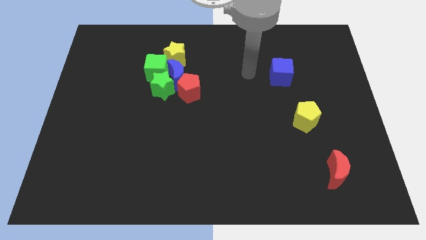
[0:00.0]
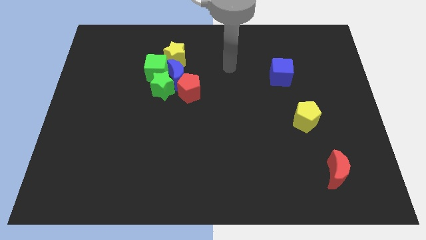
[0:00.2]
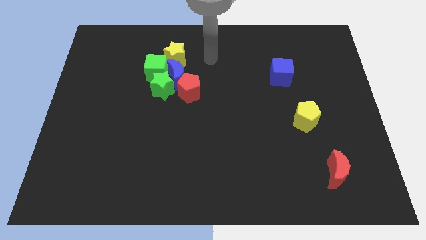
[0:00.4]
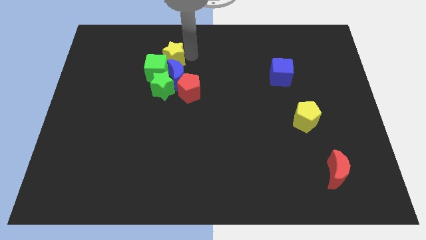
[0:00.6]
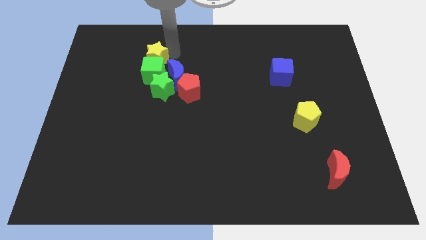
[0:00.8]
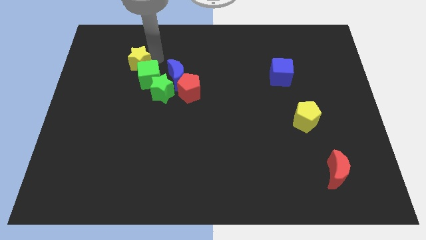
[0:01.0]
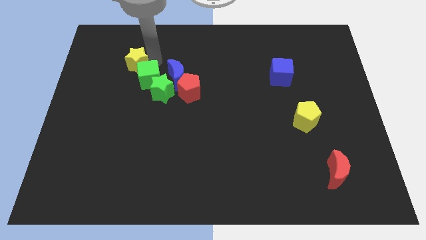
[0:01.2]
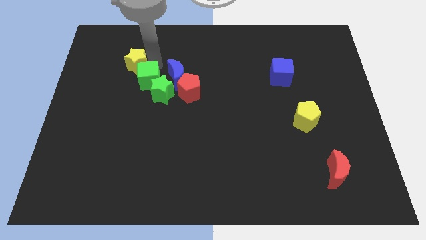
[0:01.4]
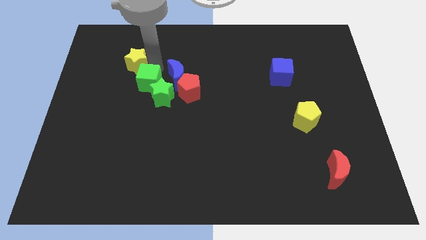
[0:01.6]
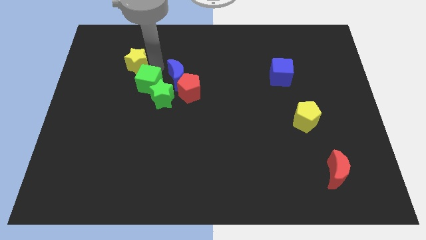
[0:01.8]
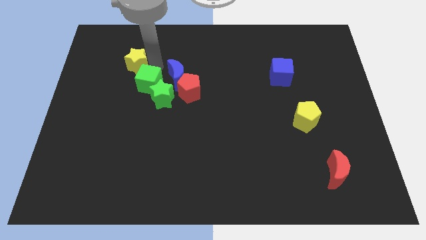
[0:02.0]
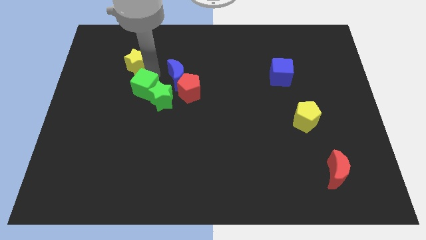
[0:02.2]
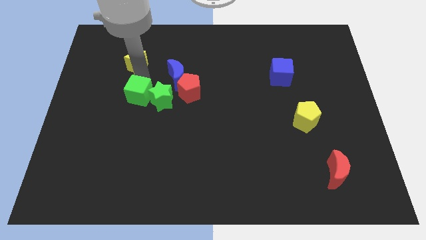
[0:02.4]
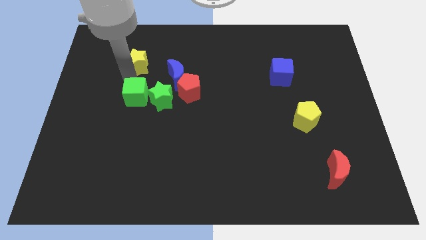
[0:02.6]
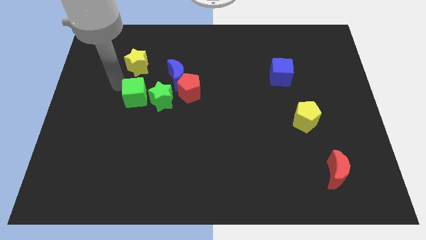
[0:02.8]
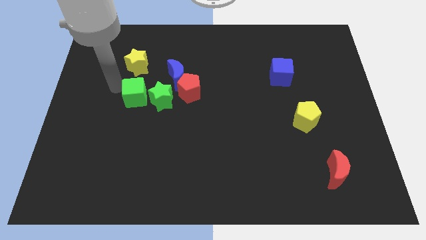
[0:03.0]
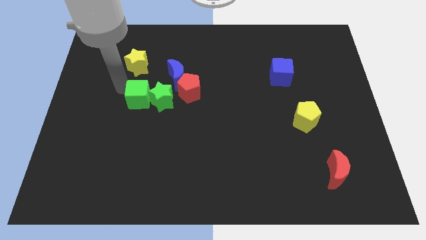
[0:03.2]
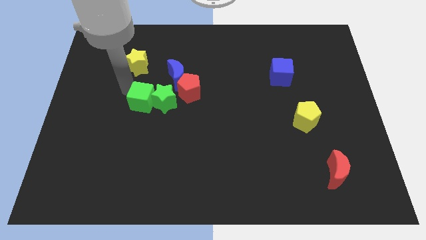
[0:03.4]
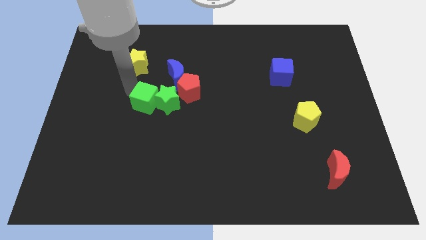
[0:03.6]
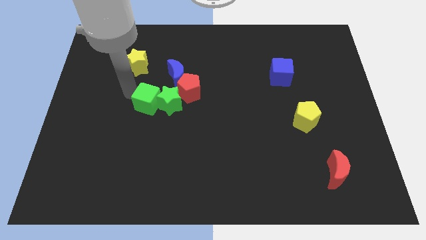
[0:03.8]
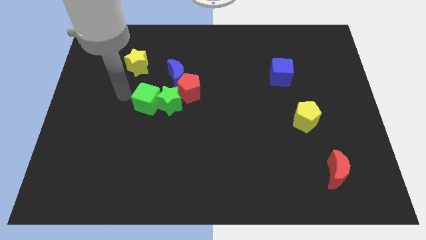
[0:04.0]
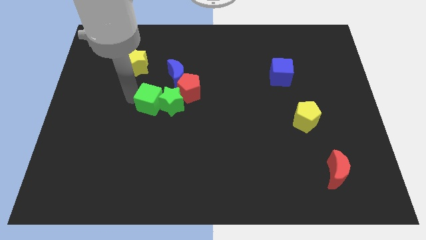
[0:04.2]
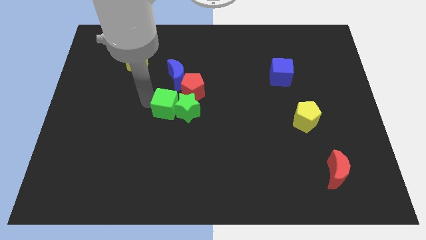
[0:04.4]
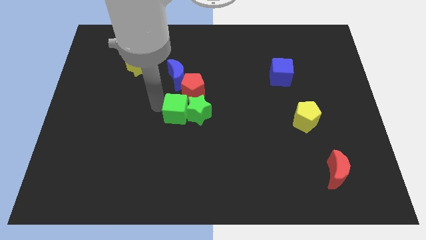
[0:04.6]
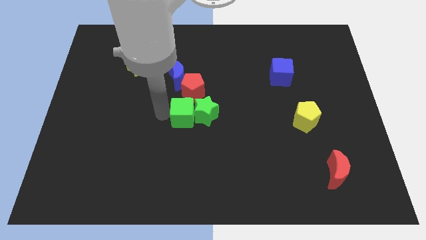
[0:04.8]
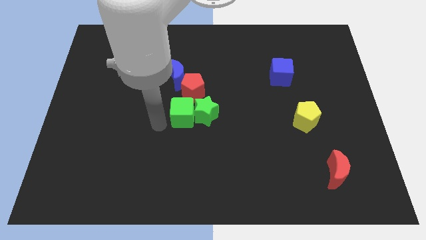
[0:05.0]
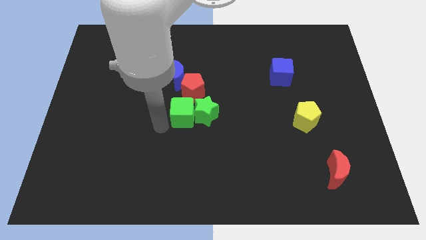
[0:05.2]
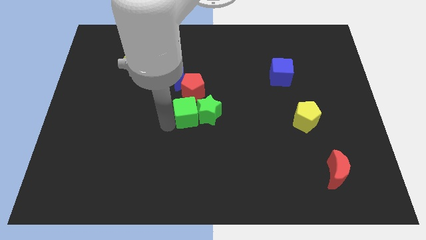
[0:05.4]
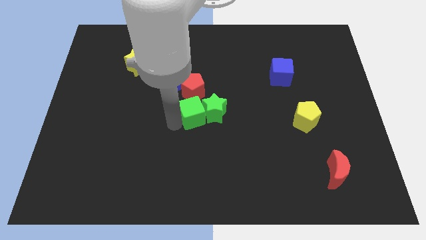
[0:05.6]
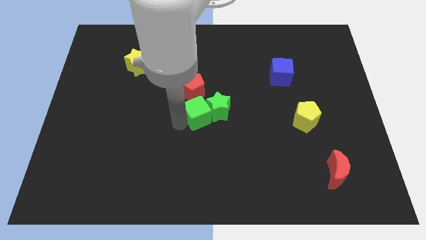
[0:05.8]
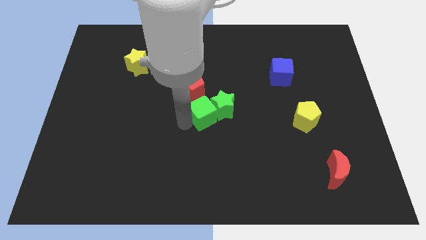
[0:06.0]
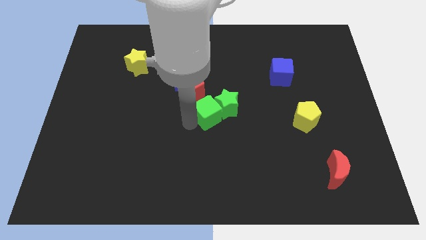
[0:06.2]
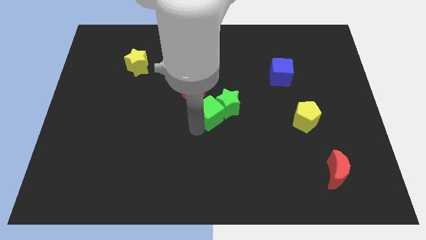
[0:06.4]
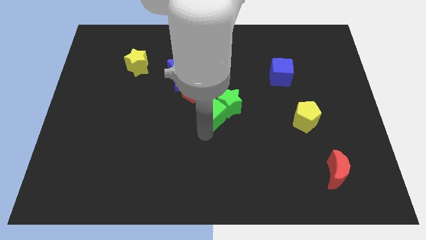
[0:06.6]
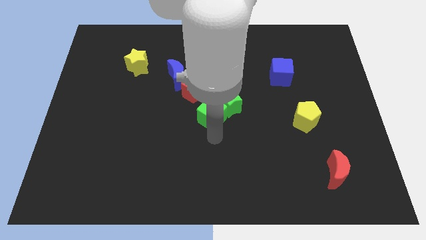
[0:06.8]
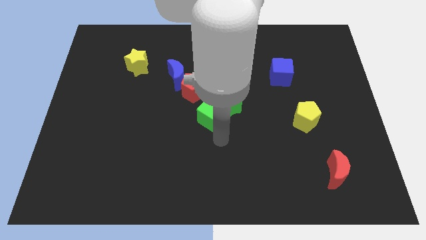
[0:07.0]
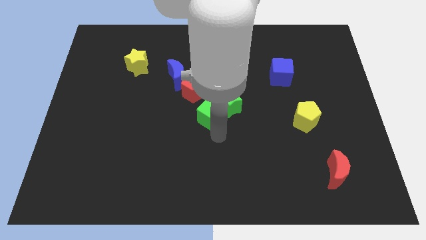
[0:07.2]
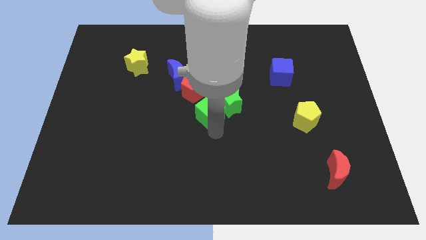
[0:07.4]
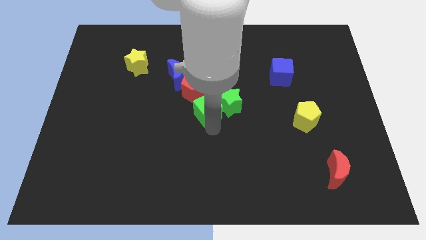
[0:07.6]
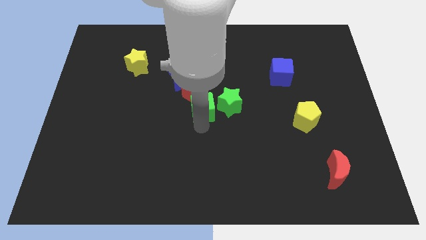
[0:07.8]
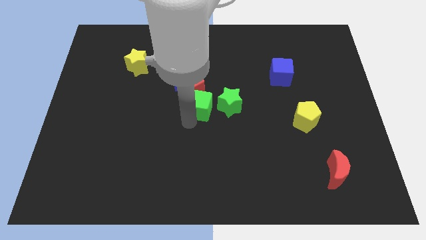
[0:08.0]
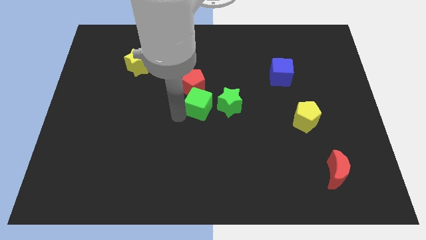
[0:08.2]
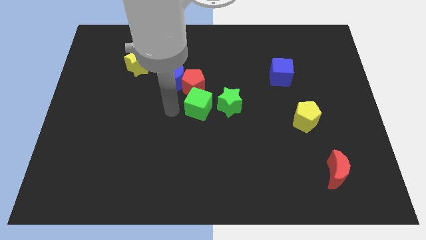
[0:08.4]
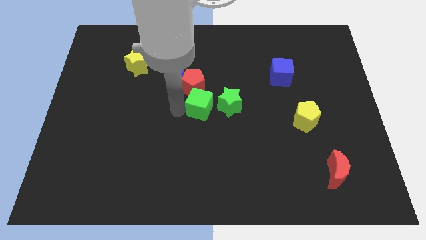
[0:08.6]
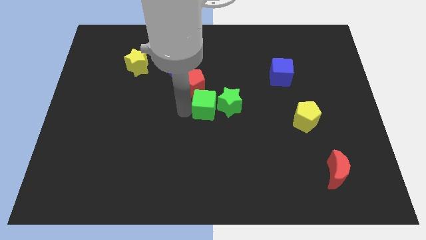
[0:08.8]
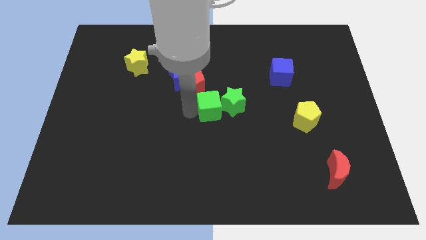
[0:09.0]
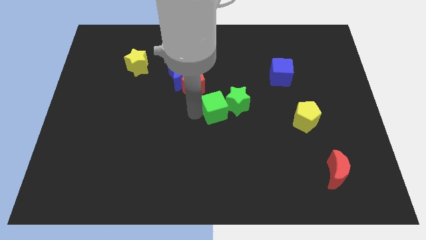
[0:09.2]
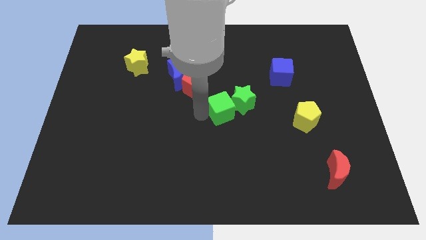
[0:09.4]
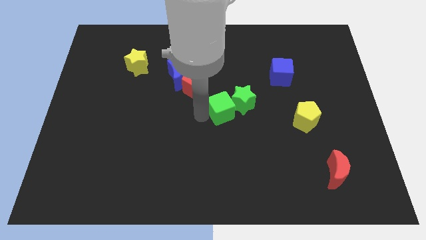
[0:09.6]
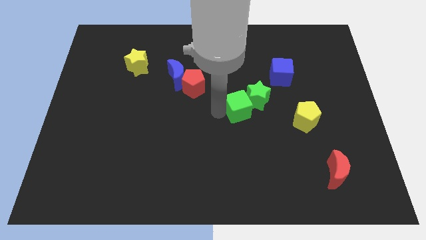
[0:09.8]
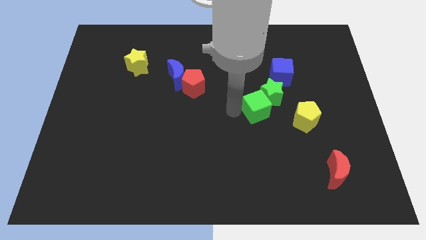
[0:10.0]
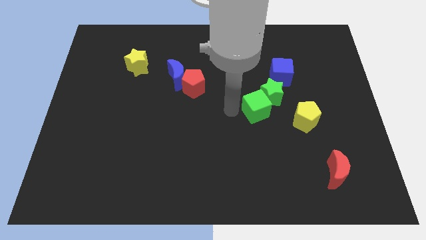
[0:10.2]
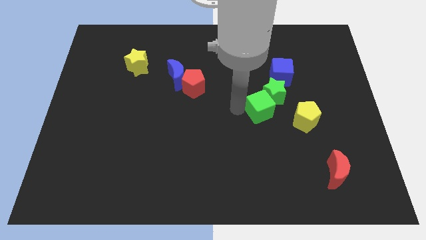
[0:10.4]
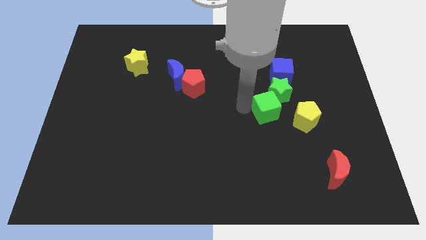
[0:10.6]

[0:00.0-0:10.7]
push the green cube to the bottom side of the blue cube

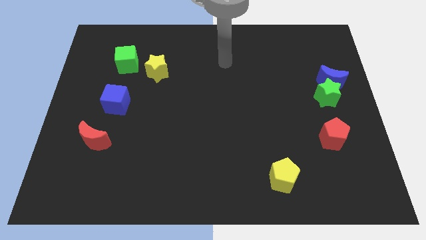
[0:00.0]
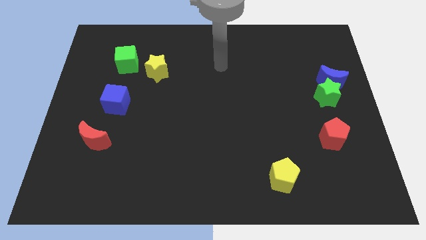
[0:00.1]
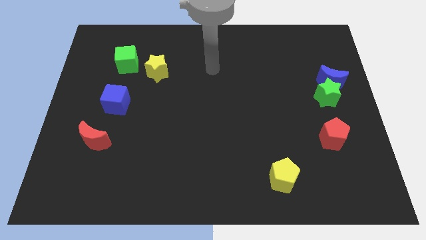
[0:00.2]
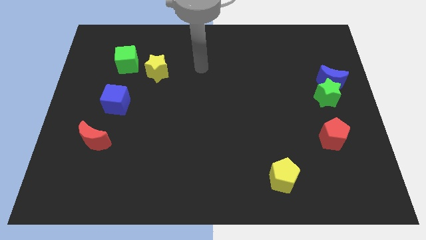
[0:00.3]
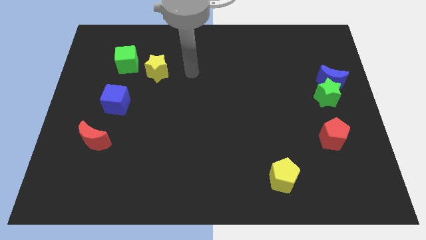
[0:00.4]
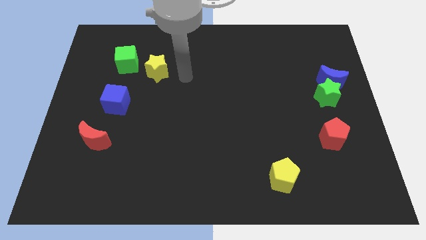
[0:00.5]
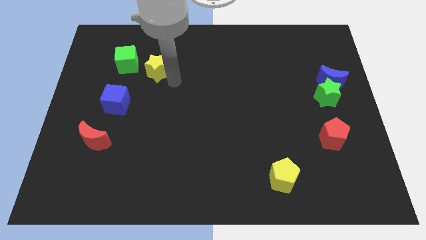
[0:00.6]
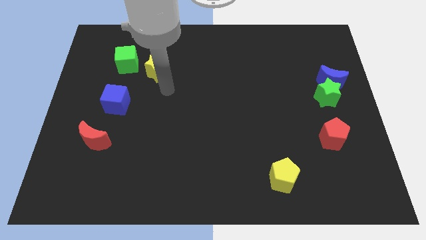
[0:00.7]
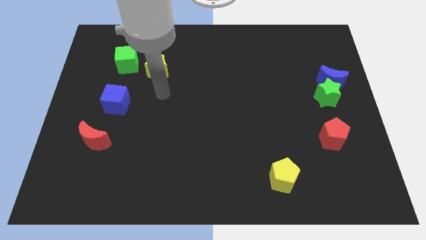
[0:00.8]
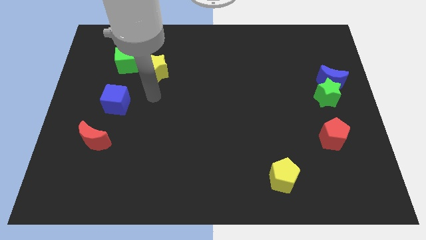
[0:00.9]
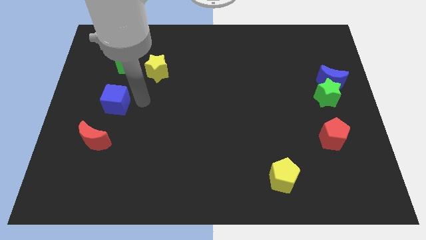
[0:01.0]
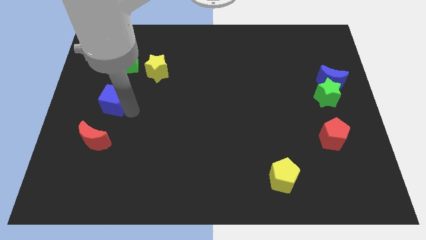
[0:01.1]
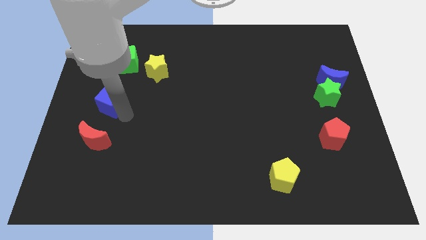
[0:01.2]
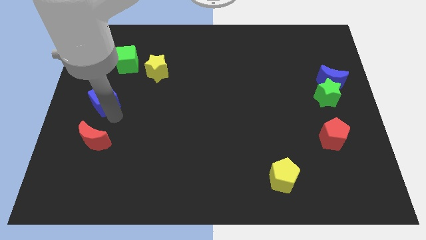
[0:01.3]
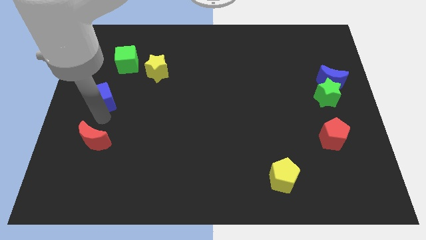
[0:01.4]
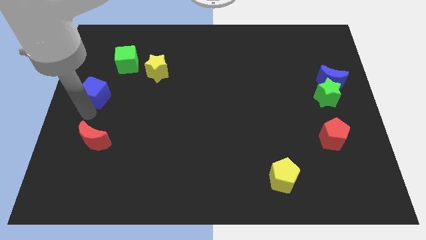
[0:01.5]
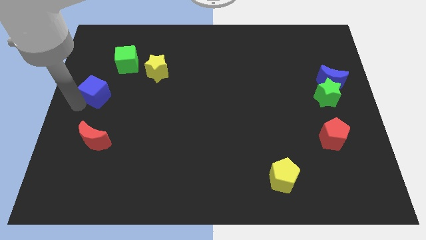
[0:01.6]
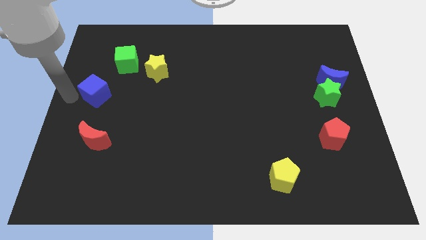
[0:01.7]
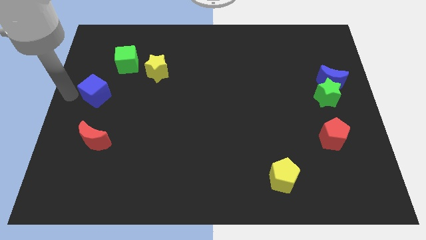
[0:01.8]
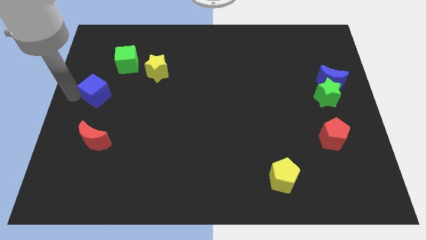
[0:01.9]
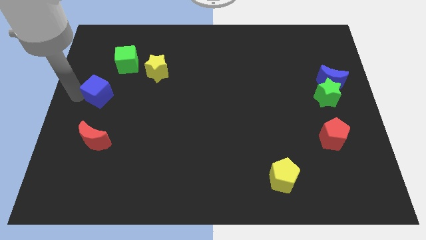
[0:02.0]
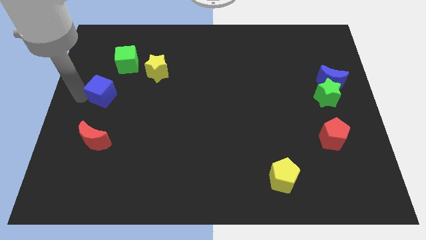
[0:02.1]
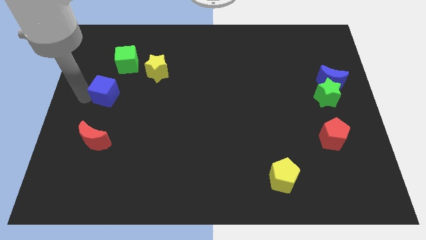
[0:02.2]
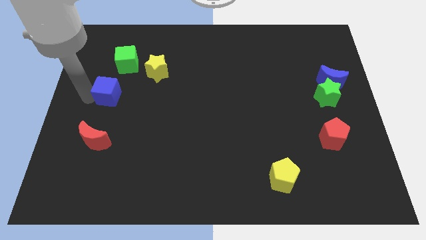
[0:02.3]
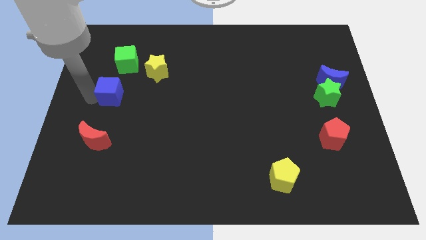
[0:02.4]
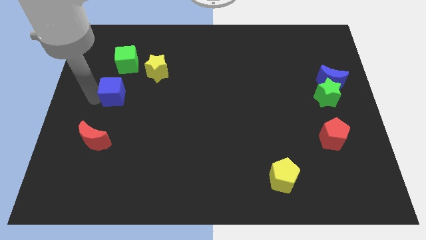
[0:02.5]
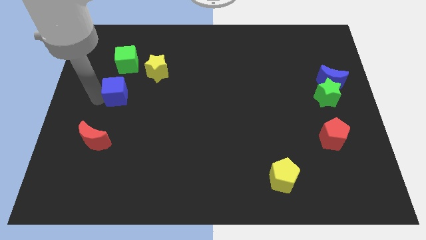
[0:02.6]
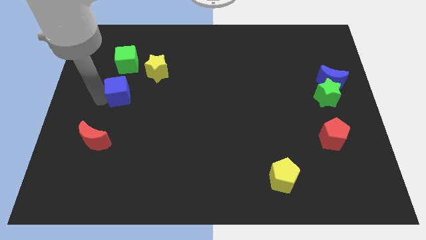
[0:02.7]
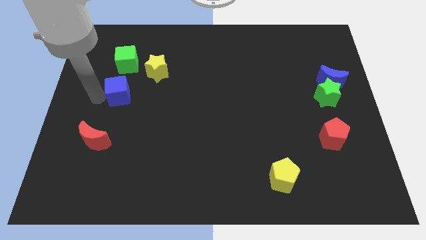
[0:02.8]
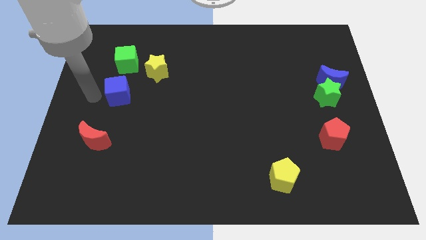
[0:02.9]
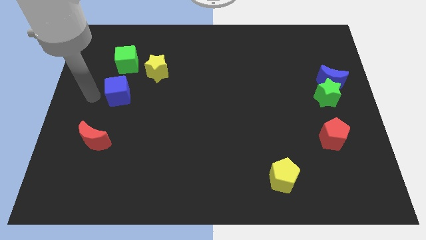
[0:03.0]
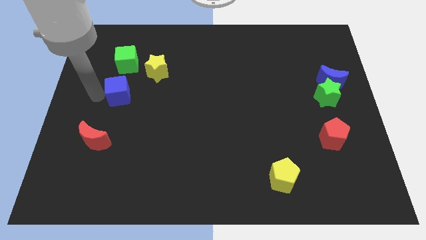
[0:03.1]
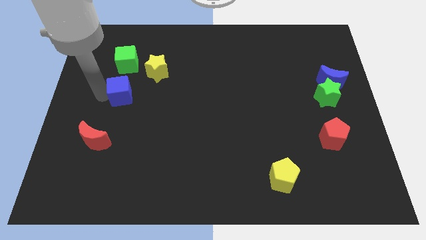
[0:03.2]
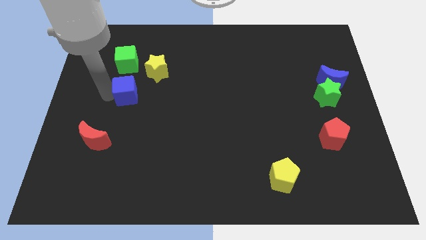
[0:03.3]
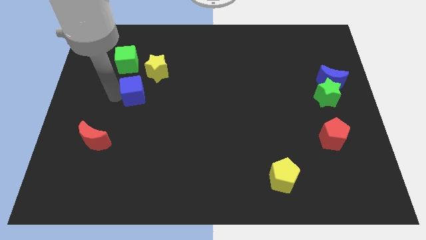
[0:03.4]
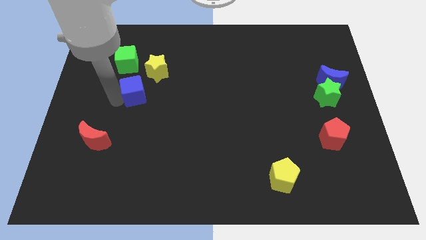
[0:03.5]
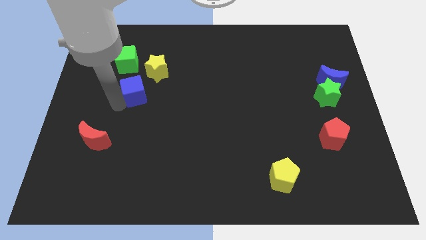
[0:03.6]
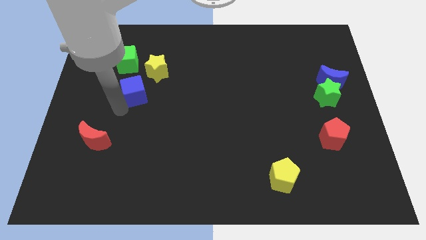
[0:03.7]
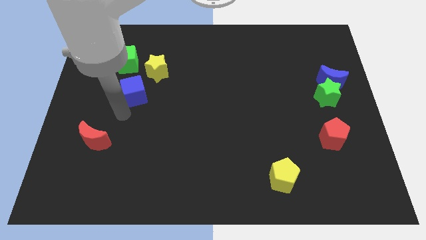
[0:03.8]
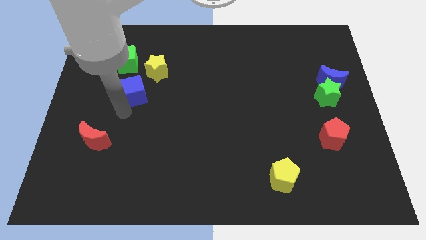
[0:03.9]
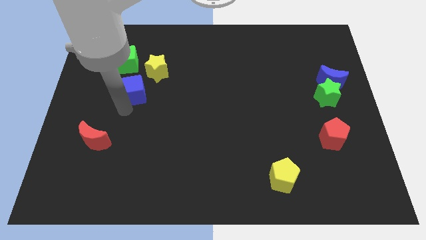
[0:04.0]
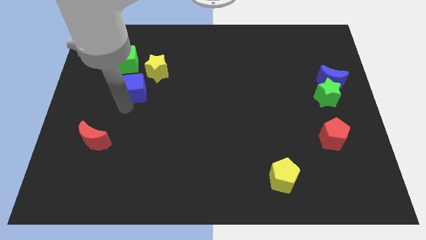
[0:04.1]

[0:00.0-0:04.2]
push the blue cube diagonally down and to the right of the green cube
